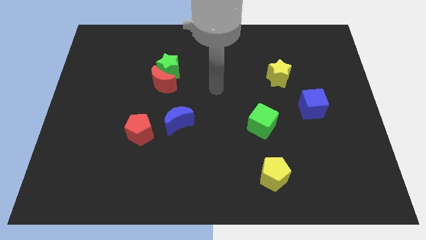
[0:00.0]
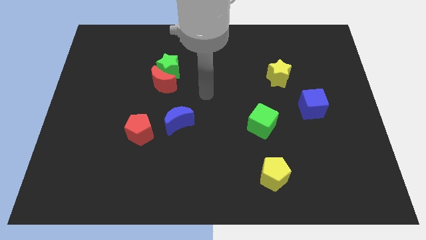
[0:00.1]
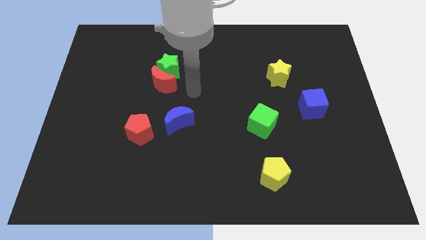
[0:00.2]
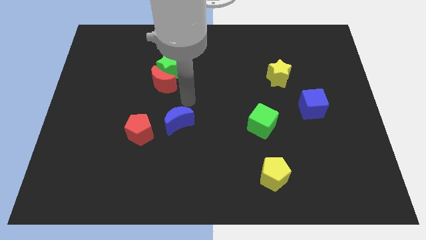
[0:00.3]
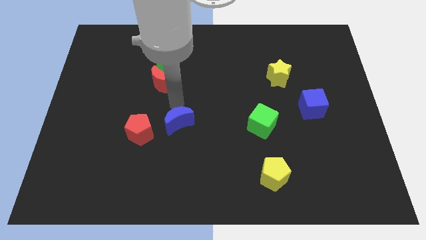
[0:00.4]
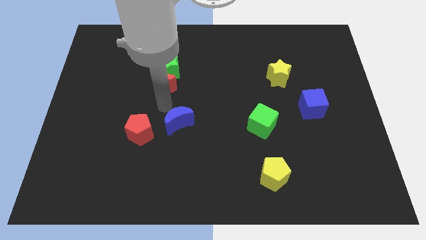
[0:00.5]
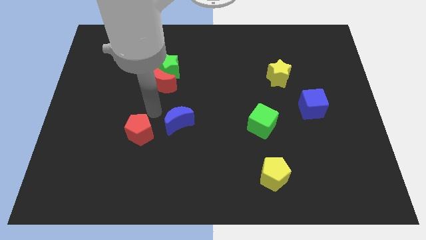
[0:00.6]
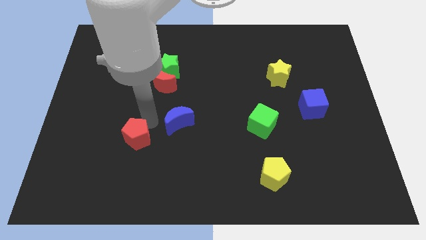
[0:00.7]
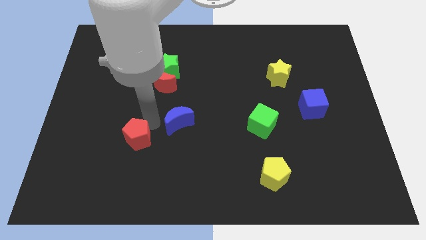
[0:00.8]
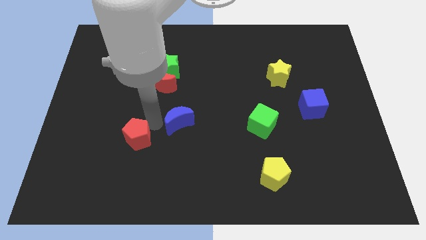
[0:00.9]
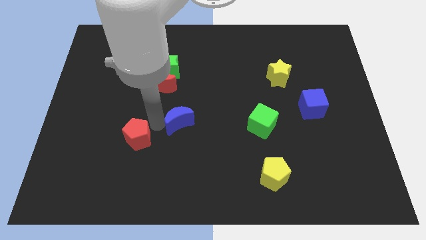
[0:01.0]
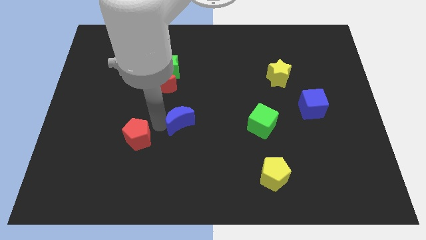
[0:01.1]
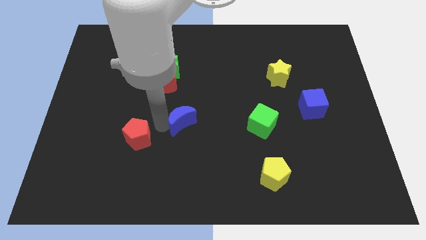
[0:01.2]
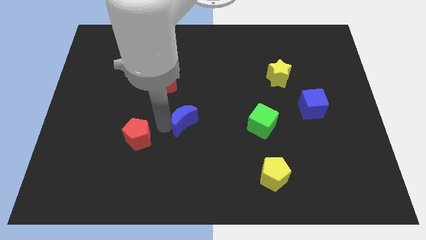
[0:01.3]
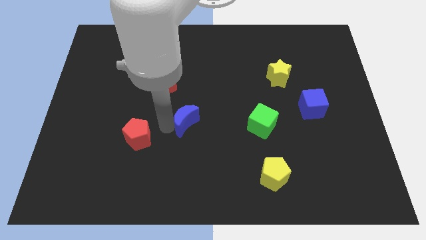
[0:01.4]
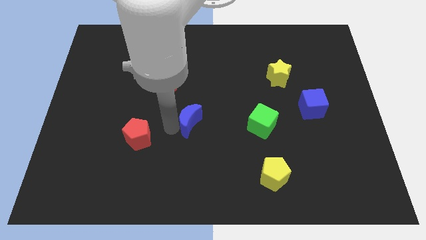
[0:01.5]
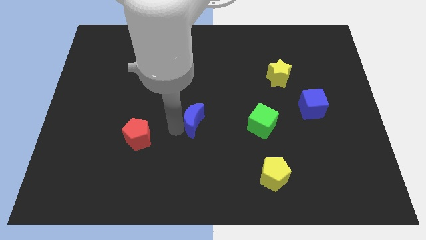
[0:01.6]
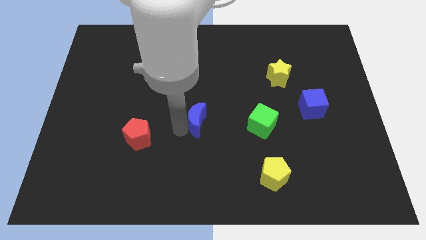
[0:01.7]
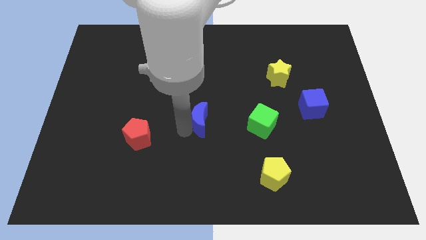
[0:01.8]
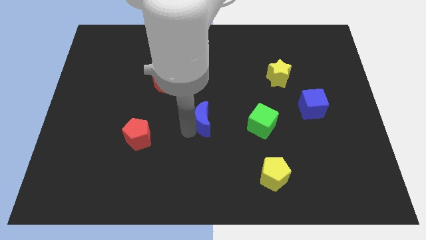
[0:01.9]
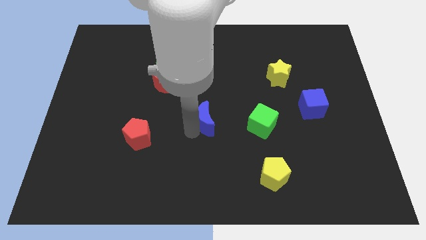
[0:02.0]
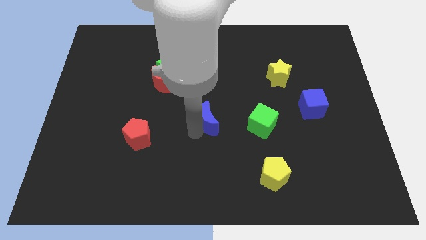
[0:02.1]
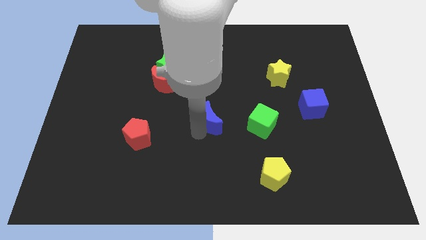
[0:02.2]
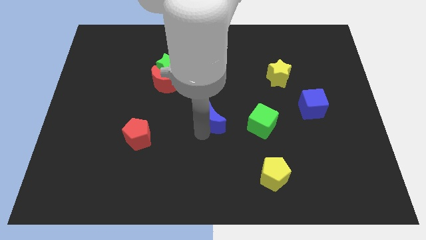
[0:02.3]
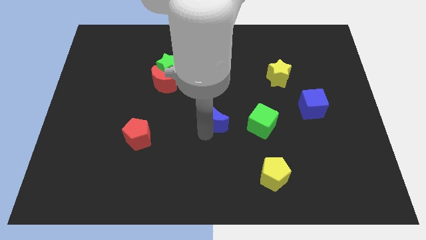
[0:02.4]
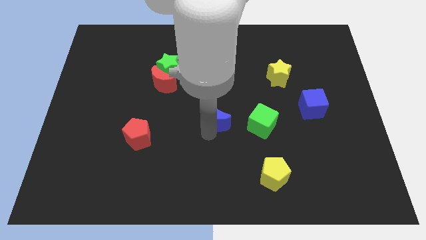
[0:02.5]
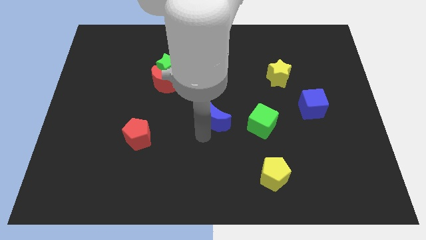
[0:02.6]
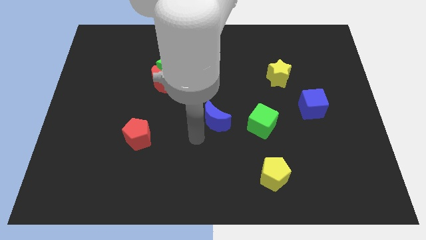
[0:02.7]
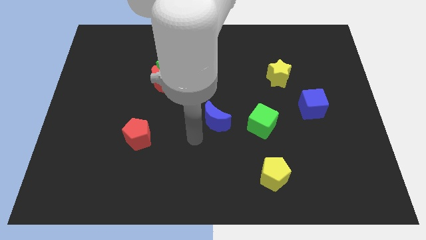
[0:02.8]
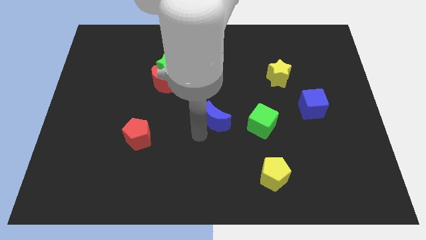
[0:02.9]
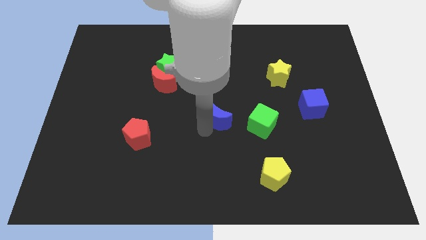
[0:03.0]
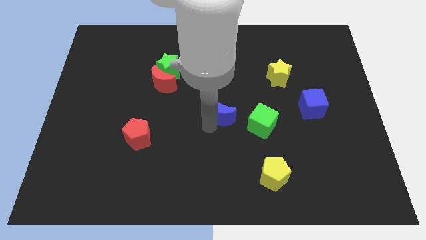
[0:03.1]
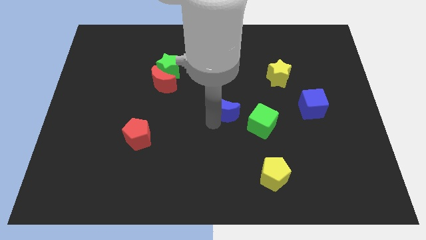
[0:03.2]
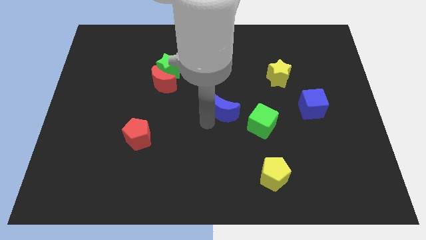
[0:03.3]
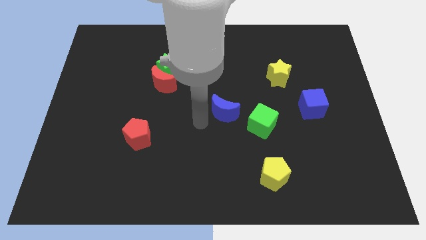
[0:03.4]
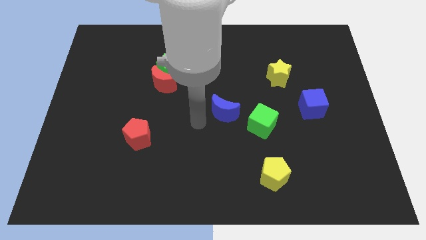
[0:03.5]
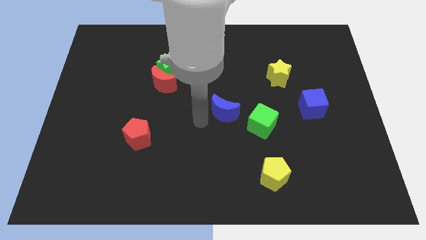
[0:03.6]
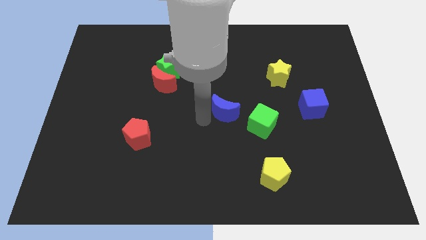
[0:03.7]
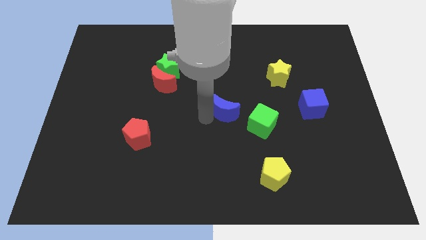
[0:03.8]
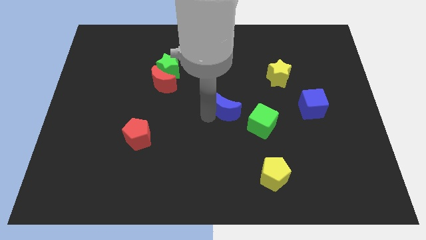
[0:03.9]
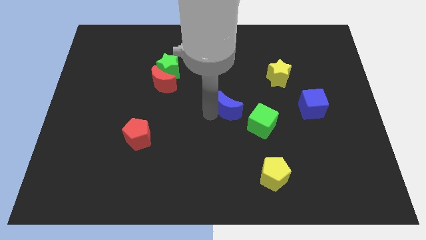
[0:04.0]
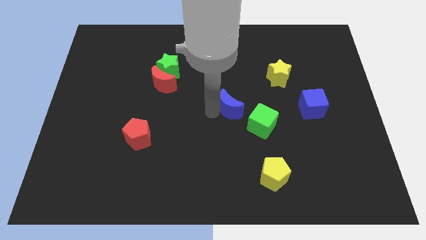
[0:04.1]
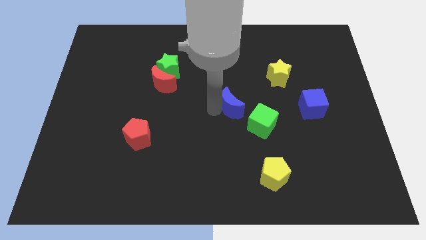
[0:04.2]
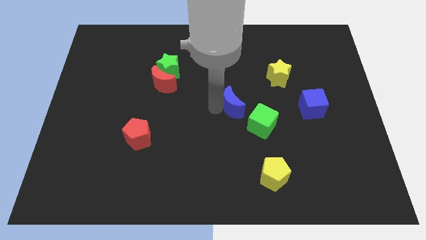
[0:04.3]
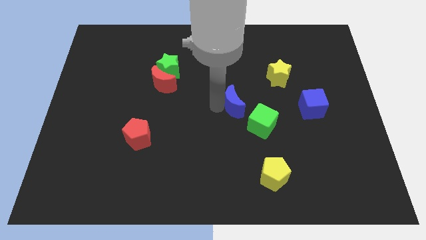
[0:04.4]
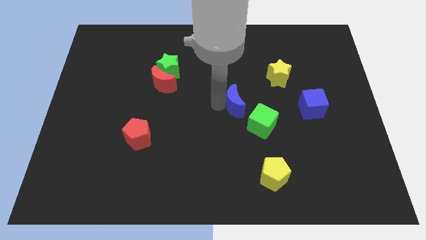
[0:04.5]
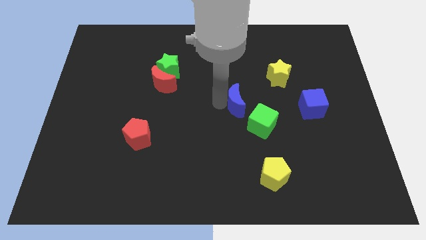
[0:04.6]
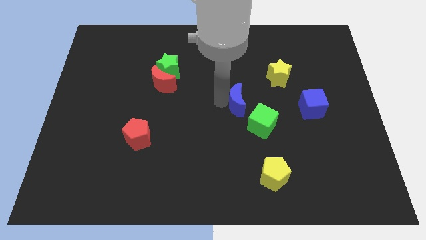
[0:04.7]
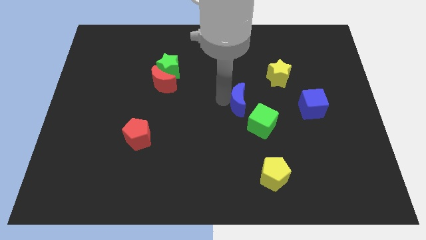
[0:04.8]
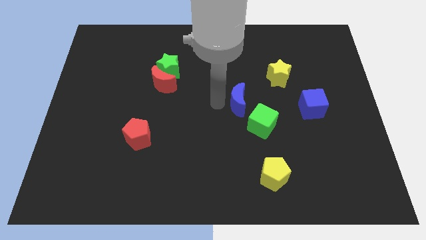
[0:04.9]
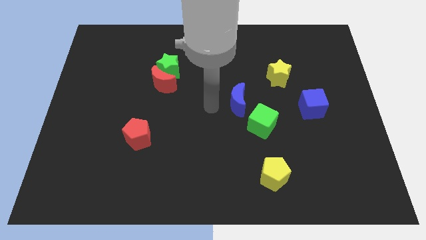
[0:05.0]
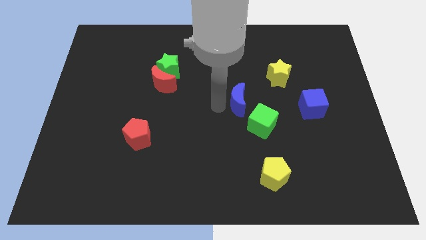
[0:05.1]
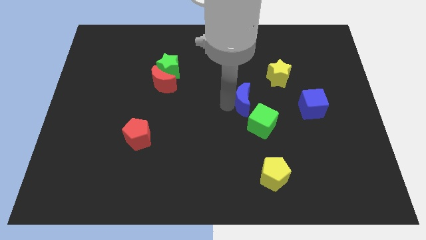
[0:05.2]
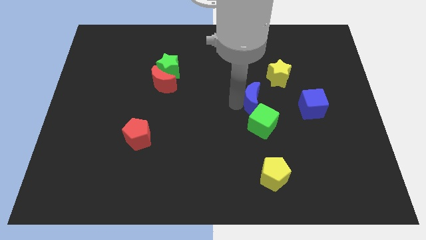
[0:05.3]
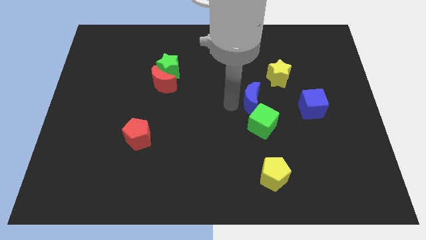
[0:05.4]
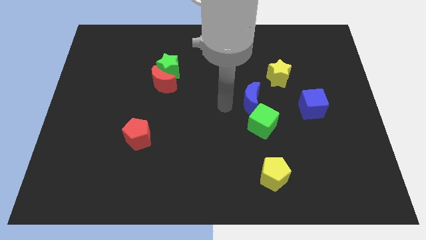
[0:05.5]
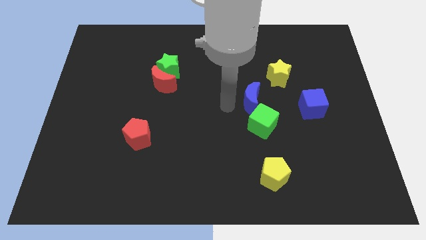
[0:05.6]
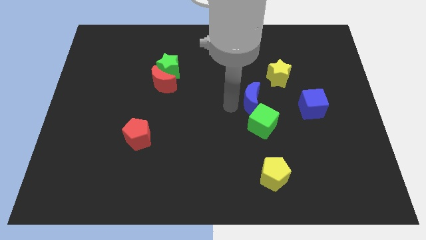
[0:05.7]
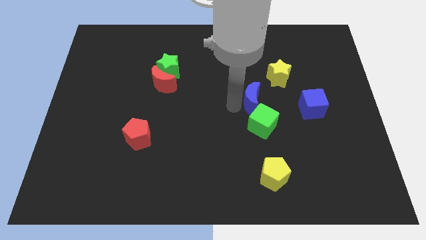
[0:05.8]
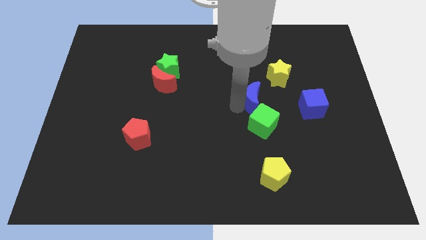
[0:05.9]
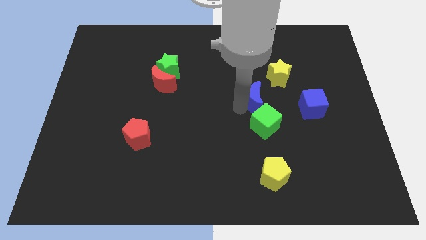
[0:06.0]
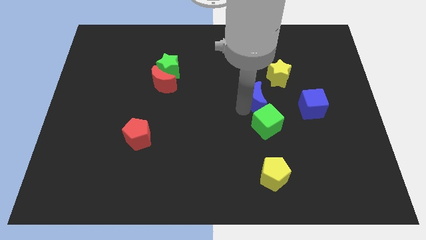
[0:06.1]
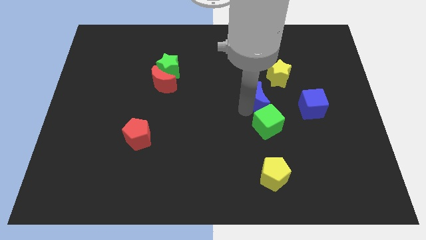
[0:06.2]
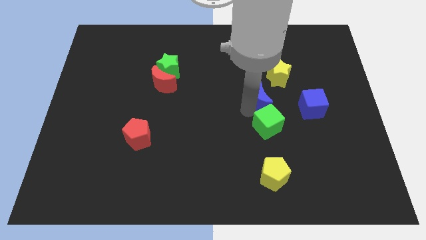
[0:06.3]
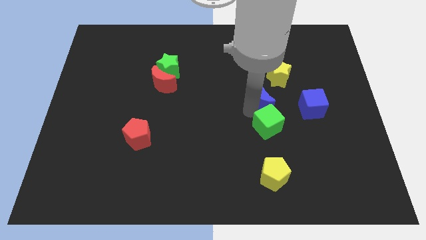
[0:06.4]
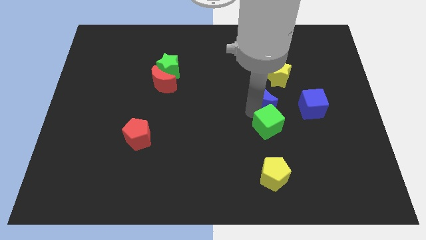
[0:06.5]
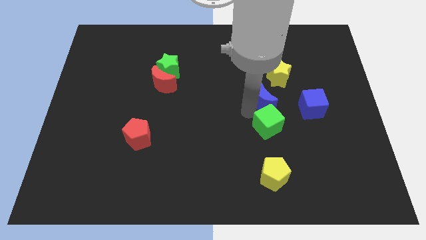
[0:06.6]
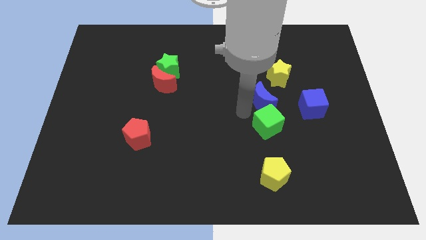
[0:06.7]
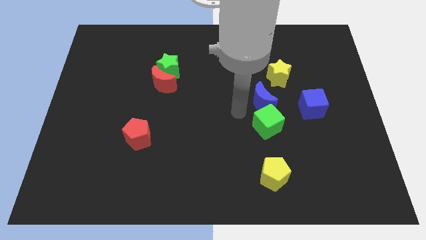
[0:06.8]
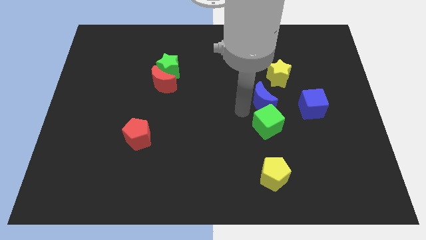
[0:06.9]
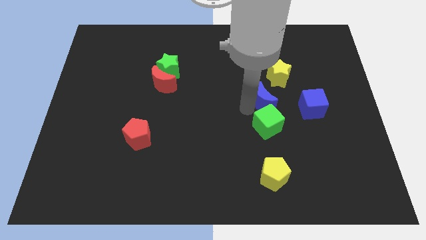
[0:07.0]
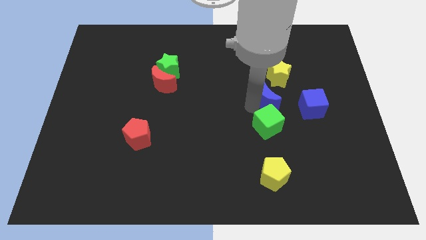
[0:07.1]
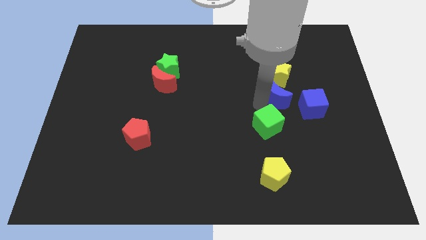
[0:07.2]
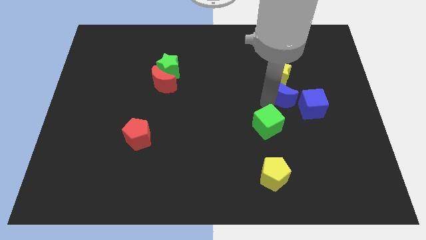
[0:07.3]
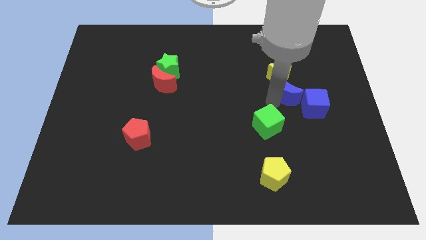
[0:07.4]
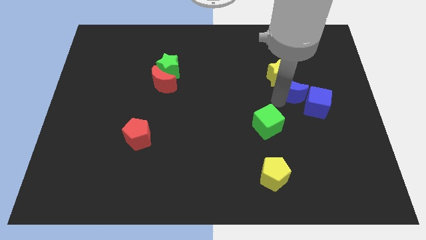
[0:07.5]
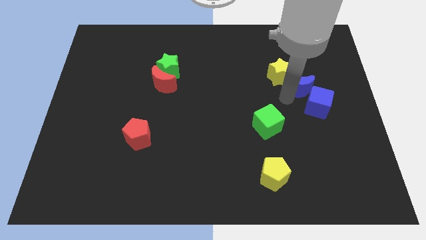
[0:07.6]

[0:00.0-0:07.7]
put the blue moon above the blue cube

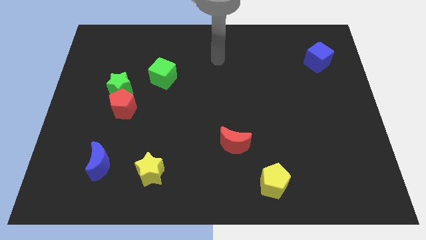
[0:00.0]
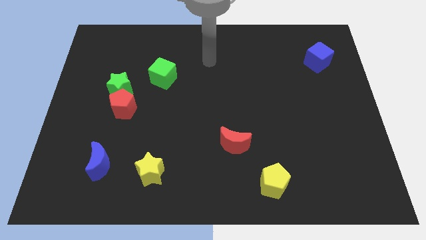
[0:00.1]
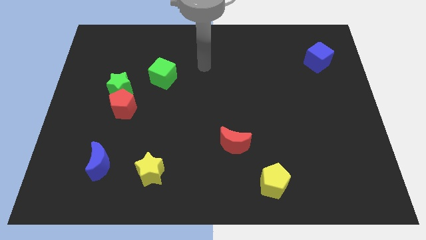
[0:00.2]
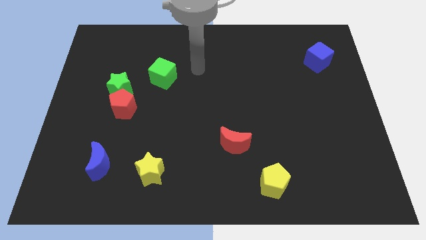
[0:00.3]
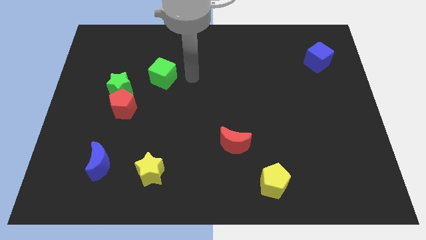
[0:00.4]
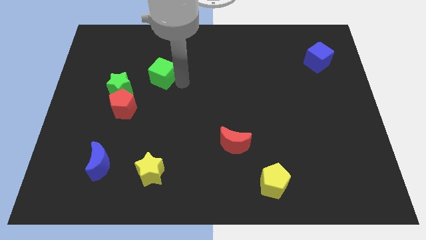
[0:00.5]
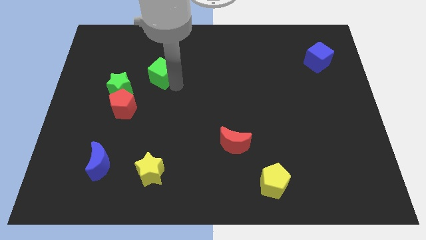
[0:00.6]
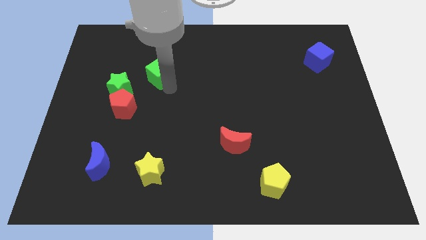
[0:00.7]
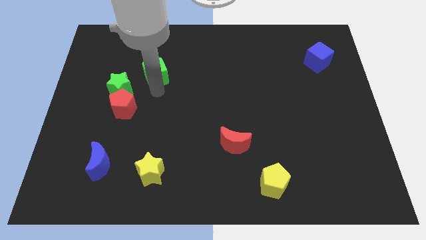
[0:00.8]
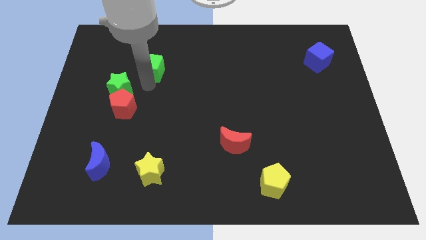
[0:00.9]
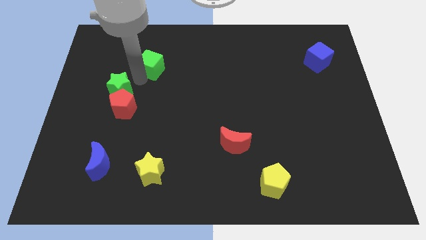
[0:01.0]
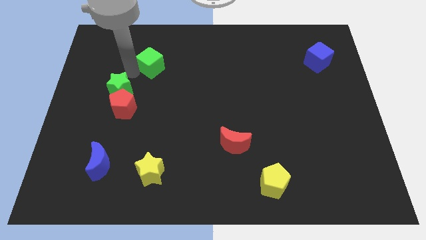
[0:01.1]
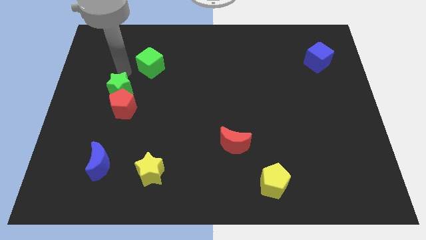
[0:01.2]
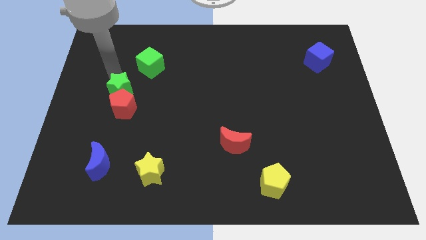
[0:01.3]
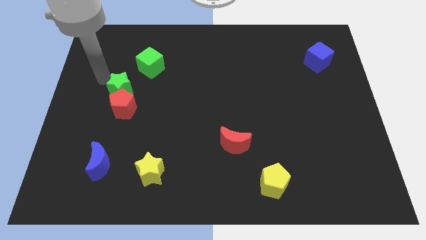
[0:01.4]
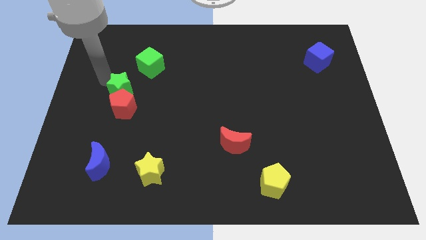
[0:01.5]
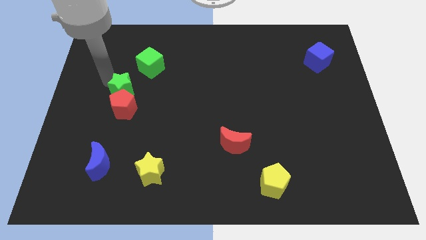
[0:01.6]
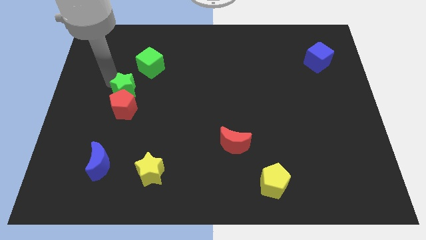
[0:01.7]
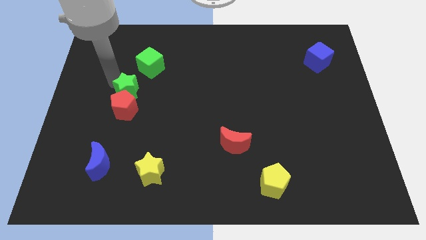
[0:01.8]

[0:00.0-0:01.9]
put the green star to the bottom of the green cube
